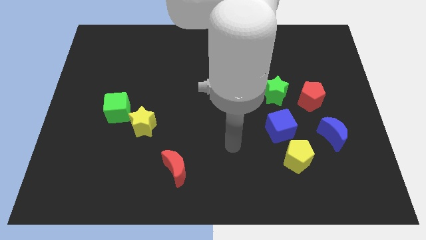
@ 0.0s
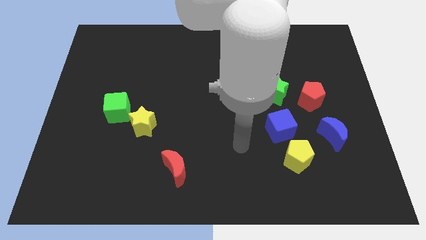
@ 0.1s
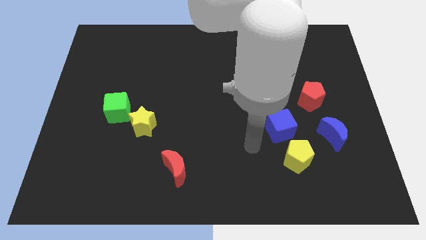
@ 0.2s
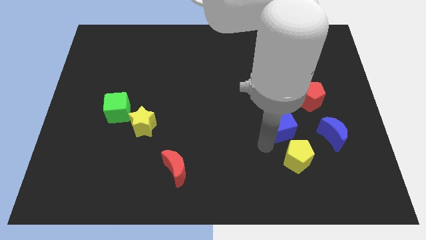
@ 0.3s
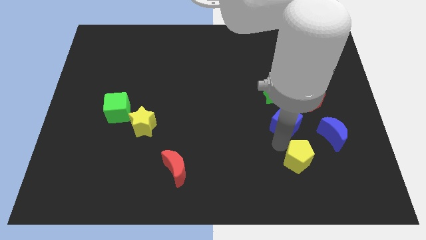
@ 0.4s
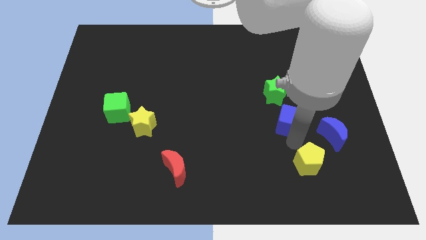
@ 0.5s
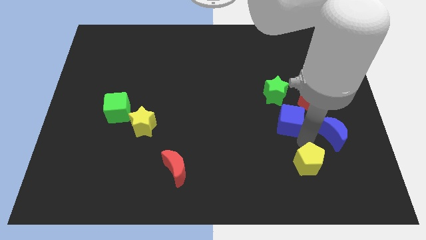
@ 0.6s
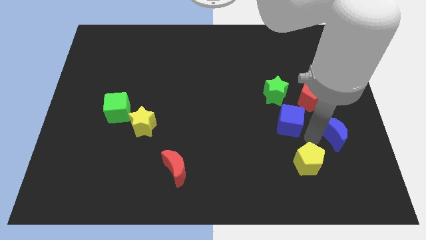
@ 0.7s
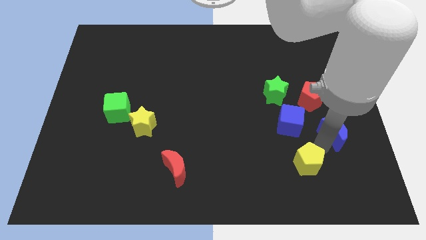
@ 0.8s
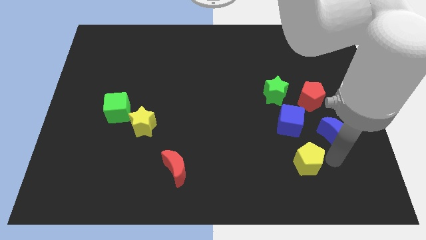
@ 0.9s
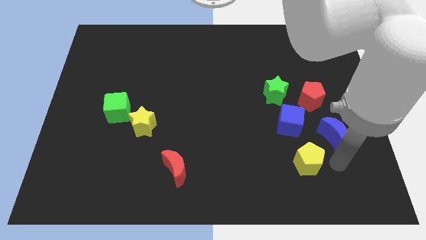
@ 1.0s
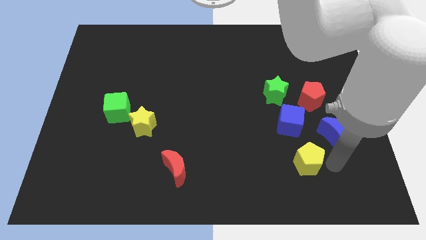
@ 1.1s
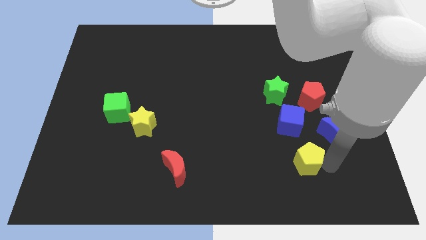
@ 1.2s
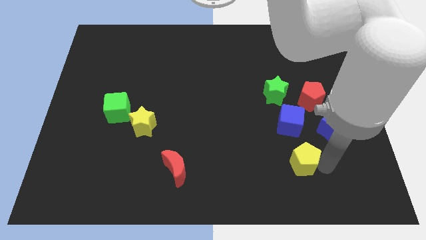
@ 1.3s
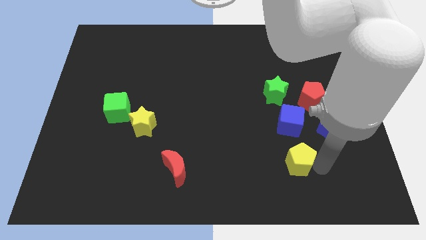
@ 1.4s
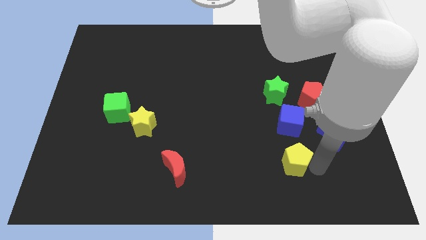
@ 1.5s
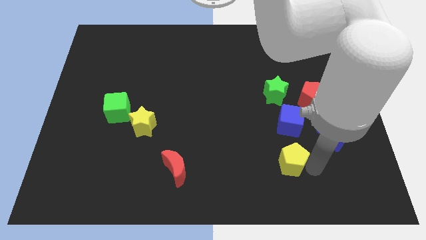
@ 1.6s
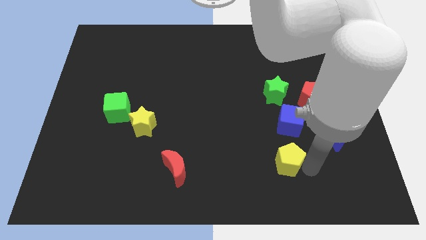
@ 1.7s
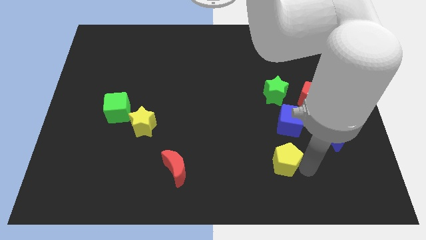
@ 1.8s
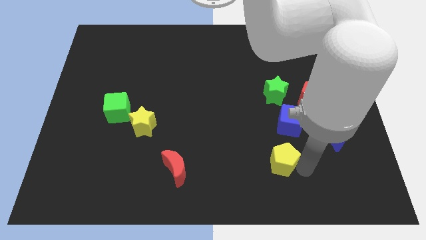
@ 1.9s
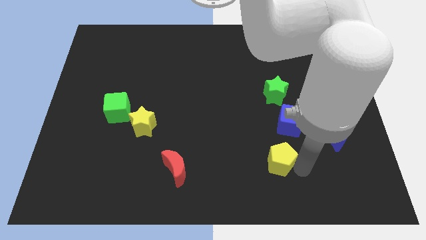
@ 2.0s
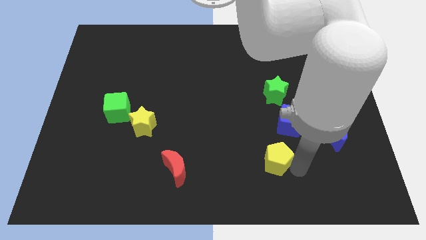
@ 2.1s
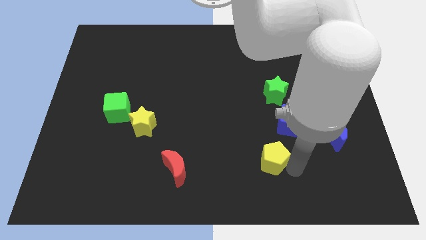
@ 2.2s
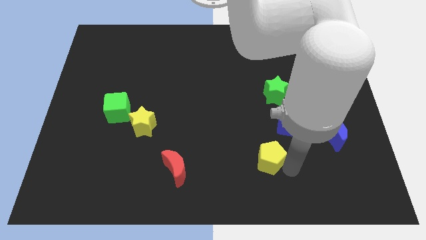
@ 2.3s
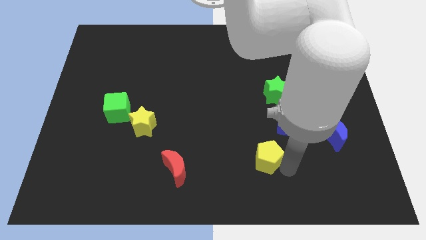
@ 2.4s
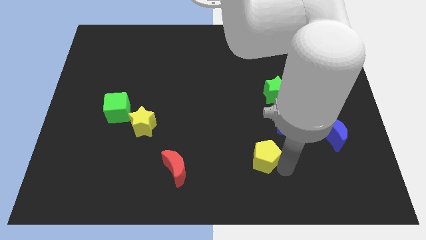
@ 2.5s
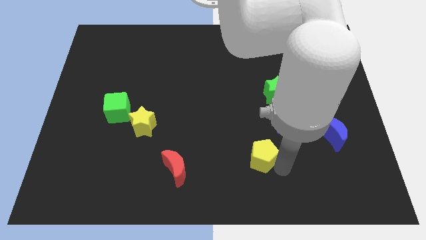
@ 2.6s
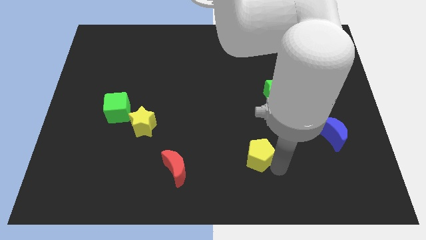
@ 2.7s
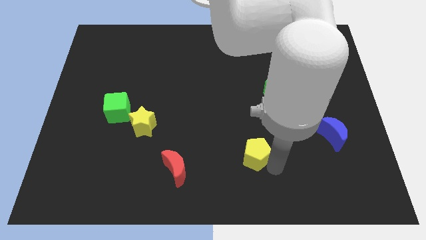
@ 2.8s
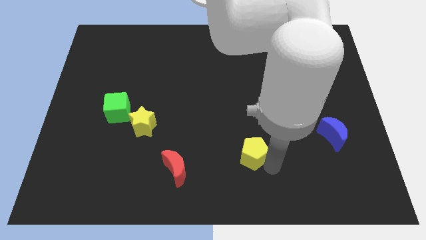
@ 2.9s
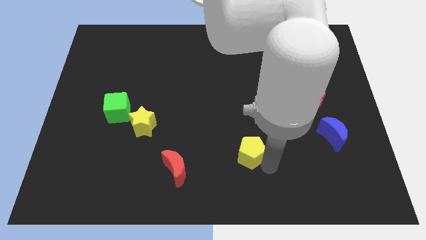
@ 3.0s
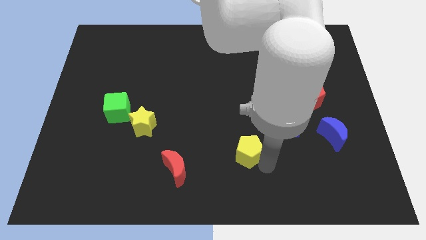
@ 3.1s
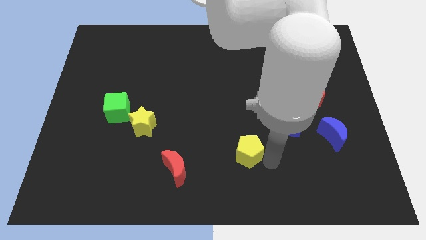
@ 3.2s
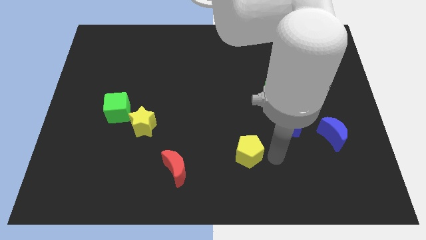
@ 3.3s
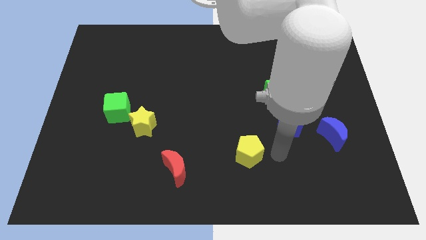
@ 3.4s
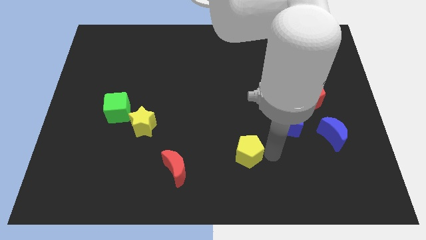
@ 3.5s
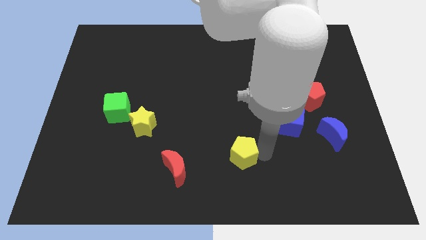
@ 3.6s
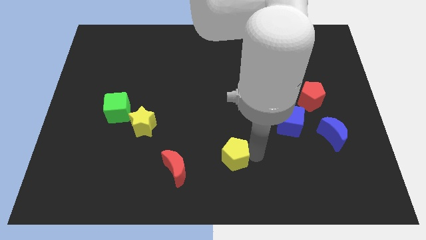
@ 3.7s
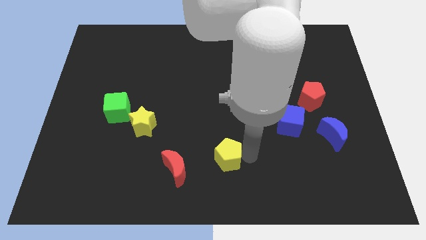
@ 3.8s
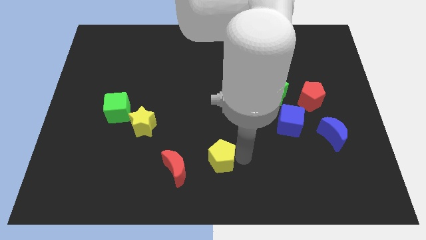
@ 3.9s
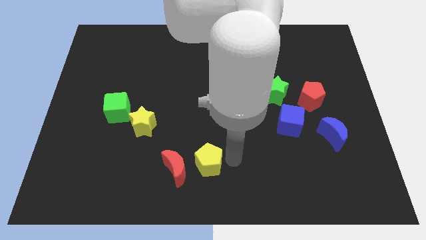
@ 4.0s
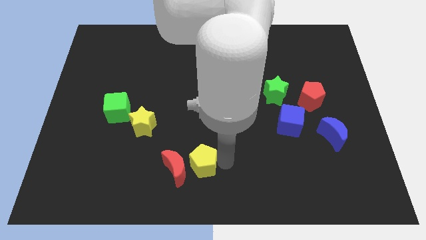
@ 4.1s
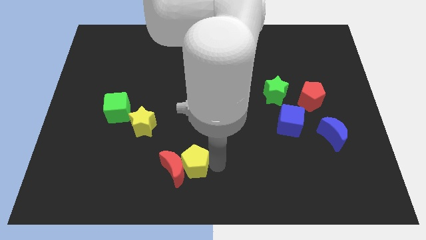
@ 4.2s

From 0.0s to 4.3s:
push the yellow pentagon to the left

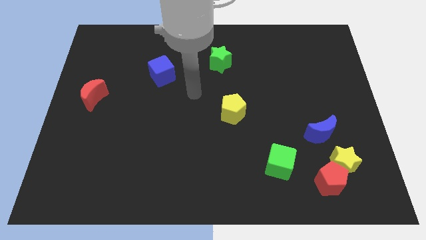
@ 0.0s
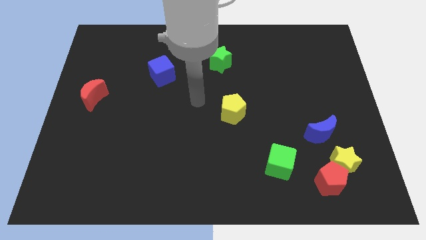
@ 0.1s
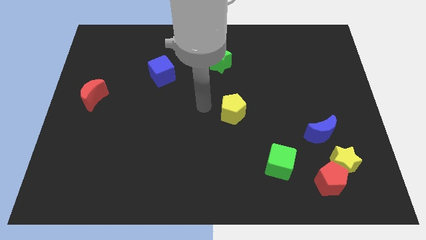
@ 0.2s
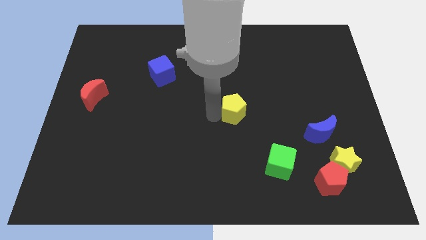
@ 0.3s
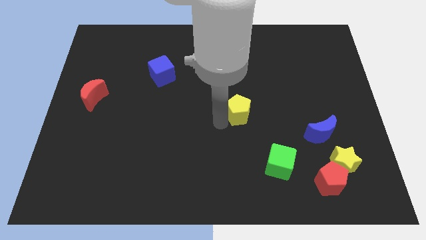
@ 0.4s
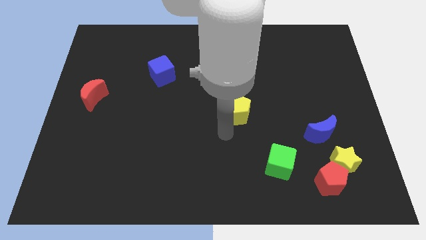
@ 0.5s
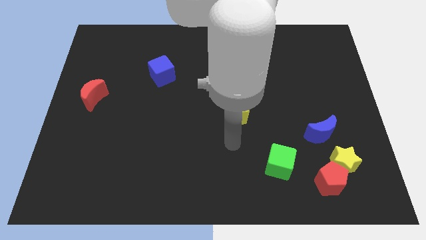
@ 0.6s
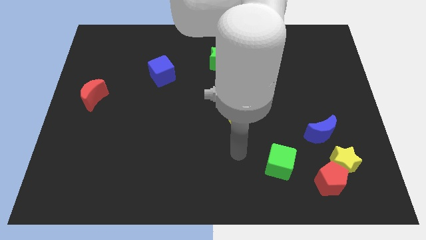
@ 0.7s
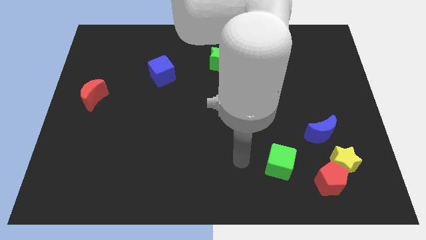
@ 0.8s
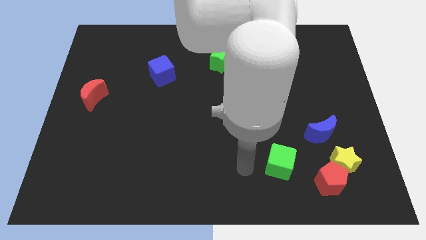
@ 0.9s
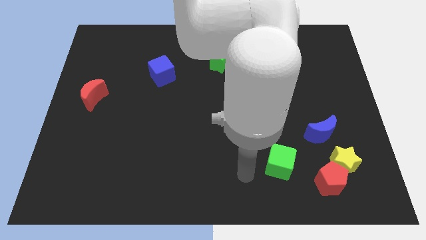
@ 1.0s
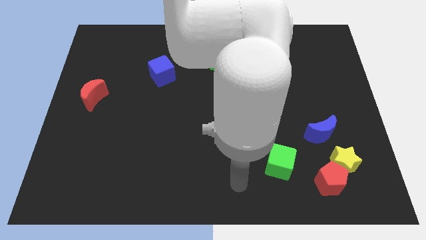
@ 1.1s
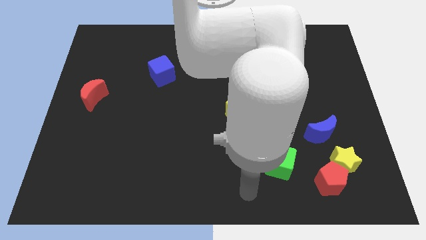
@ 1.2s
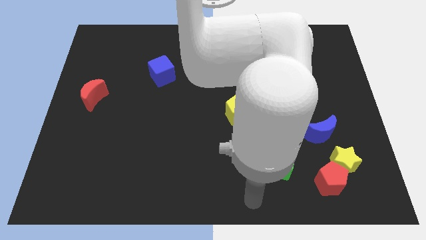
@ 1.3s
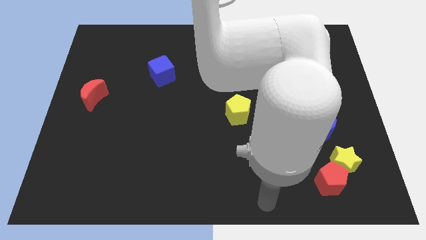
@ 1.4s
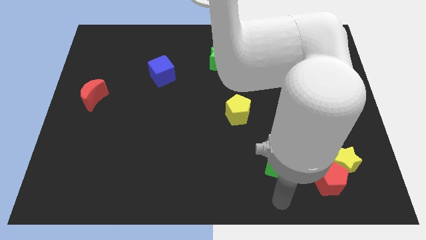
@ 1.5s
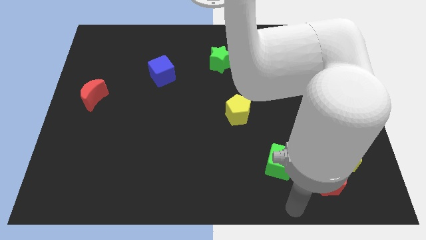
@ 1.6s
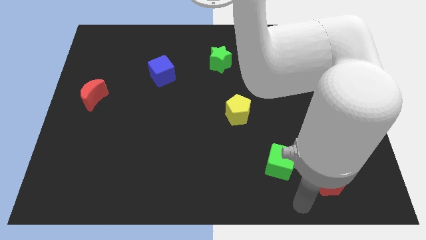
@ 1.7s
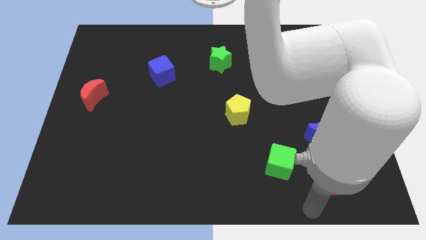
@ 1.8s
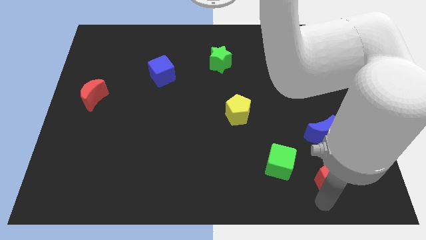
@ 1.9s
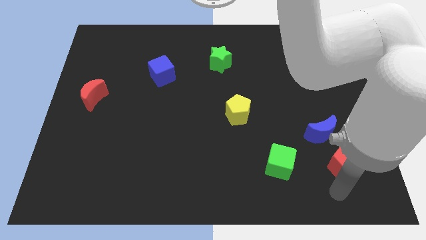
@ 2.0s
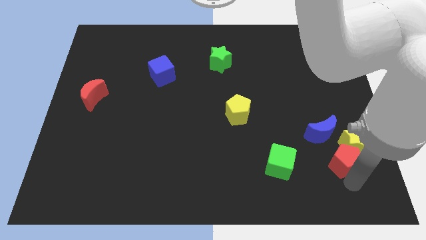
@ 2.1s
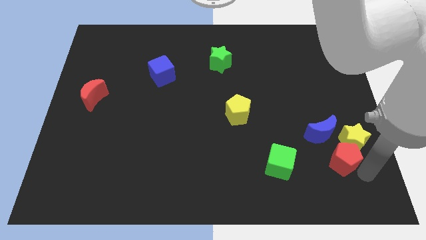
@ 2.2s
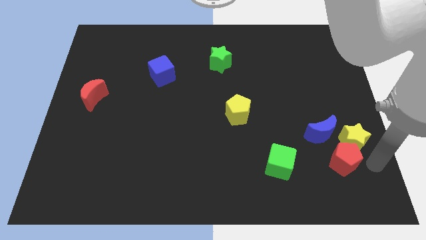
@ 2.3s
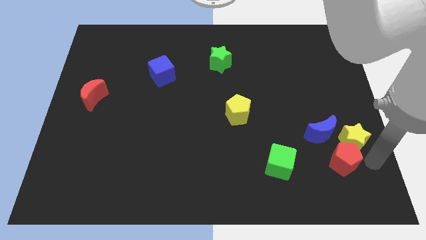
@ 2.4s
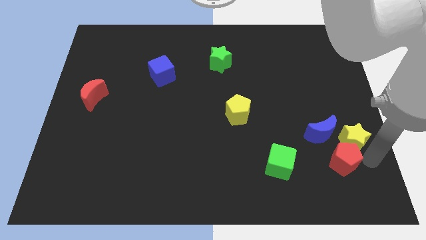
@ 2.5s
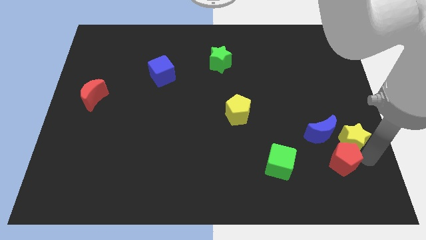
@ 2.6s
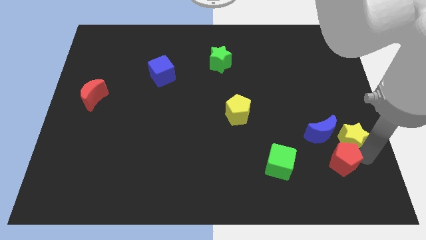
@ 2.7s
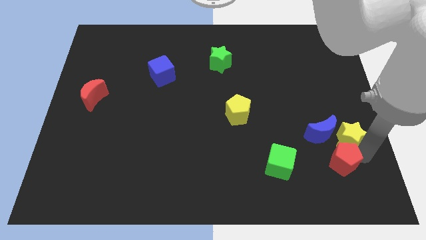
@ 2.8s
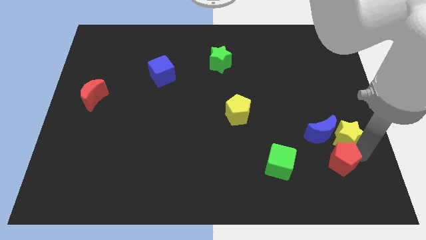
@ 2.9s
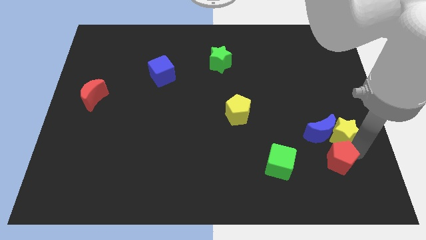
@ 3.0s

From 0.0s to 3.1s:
slide the yellow star up a little

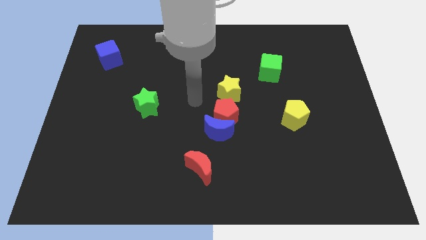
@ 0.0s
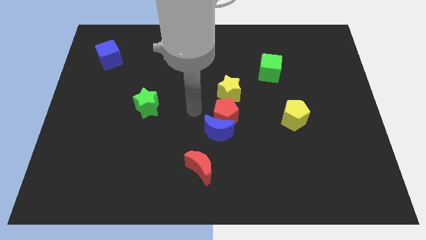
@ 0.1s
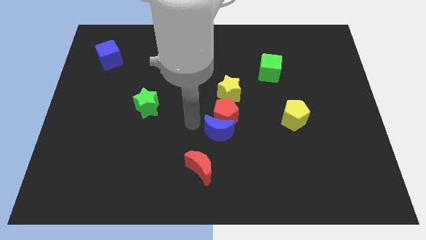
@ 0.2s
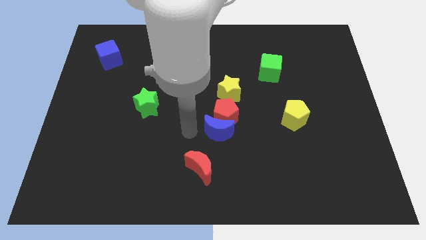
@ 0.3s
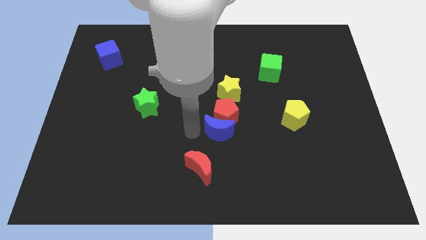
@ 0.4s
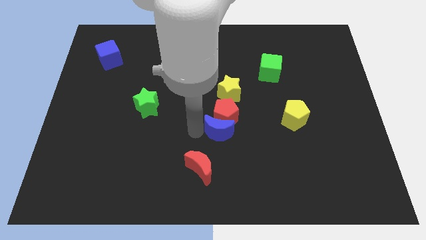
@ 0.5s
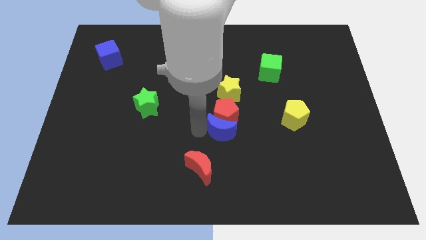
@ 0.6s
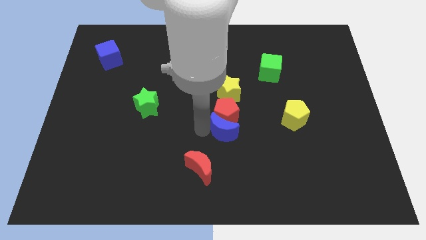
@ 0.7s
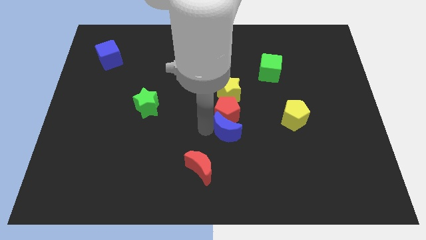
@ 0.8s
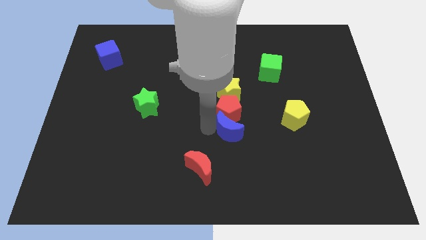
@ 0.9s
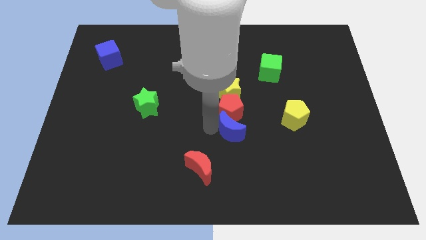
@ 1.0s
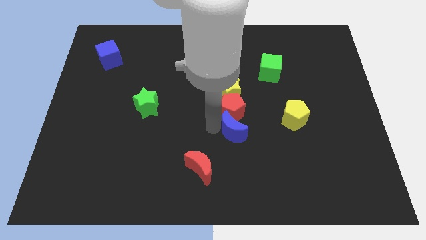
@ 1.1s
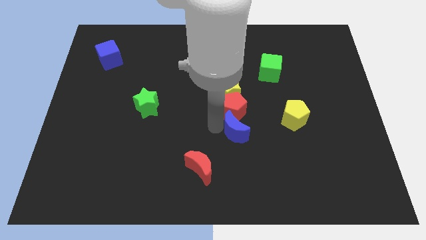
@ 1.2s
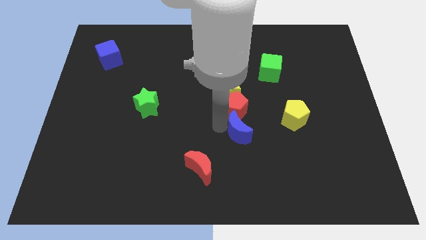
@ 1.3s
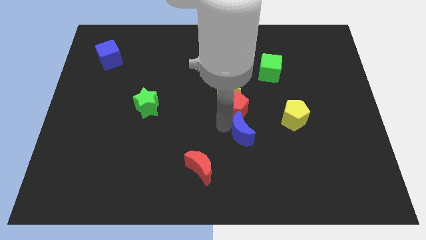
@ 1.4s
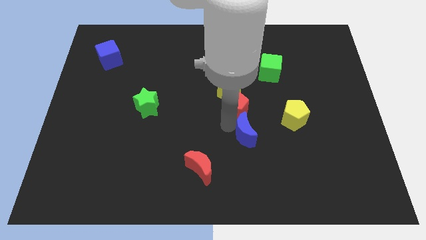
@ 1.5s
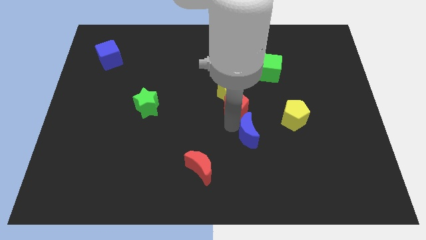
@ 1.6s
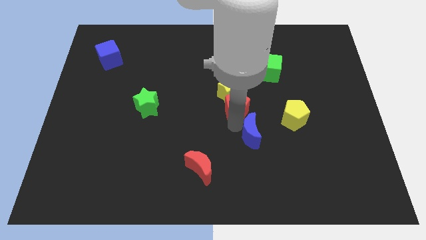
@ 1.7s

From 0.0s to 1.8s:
push the blue moon right somewhat
